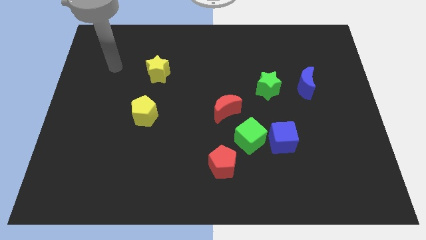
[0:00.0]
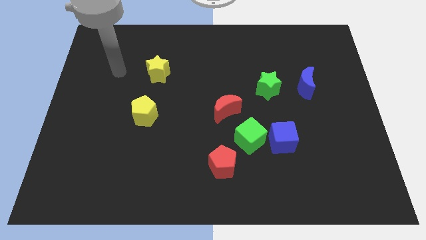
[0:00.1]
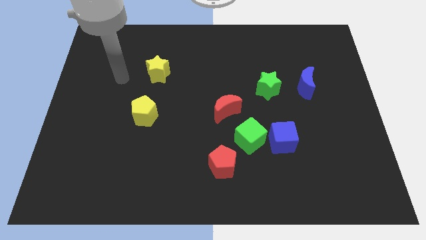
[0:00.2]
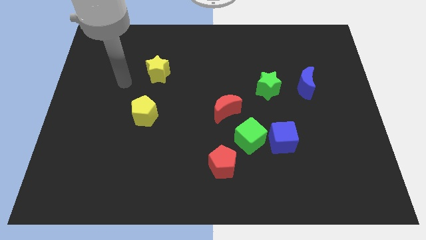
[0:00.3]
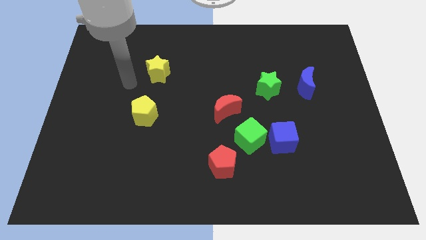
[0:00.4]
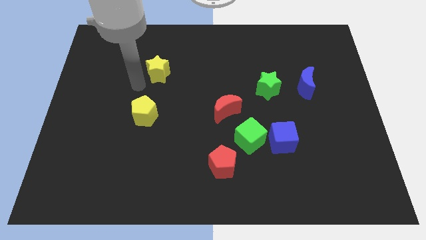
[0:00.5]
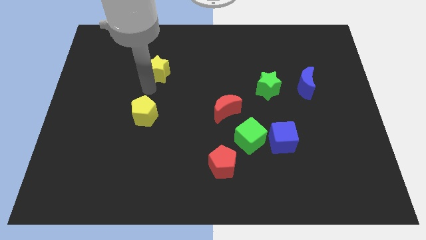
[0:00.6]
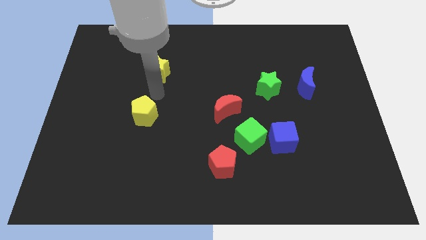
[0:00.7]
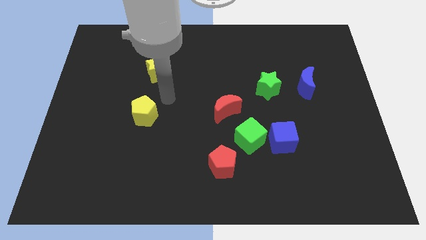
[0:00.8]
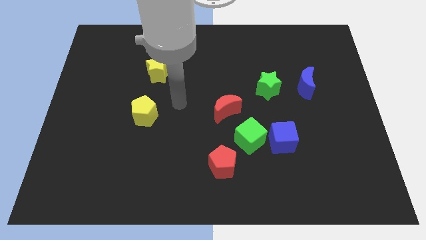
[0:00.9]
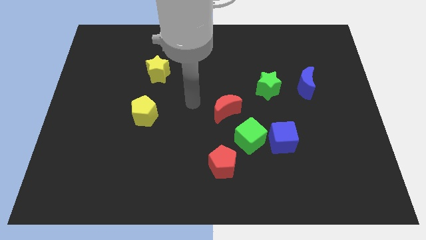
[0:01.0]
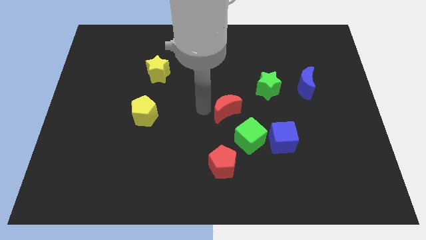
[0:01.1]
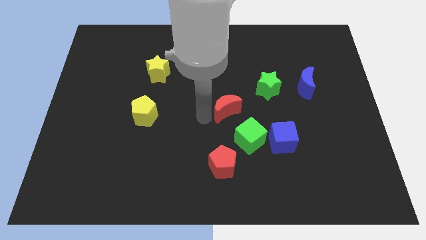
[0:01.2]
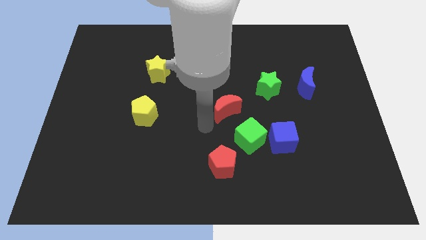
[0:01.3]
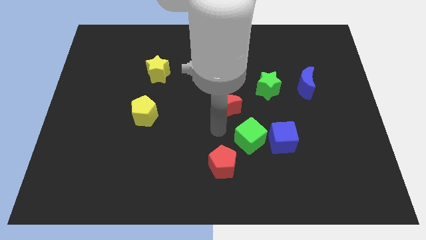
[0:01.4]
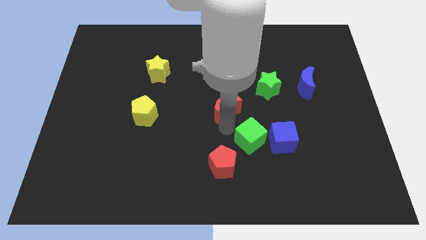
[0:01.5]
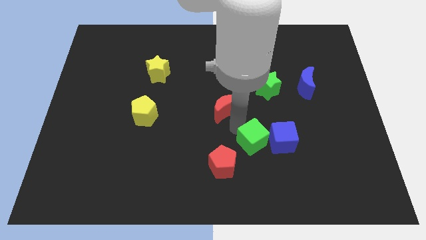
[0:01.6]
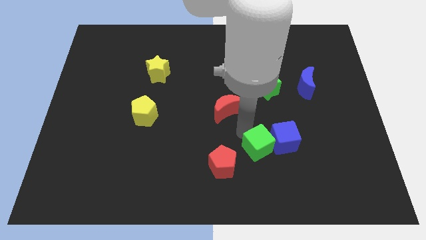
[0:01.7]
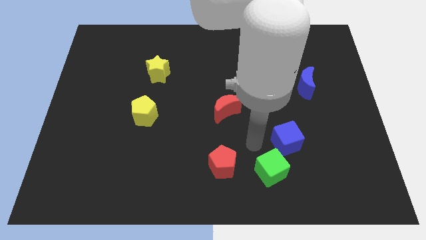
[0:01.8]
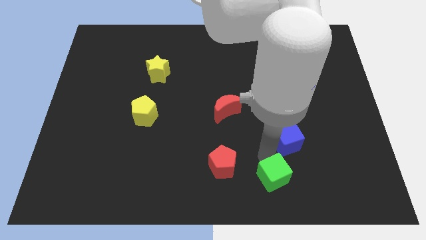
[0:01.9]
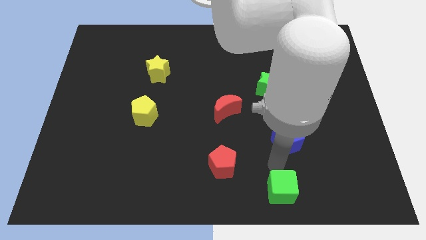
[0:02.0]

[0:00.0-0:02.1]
separate the blue cube from the green cube

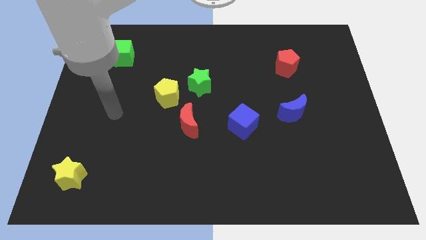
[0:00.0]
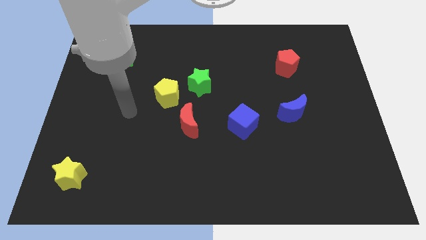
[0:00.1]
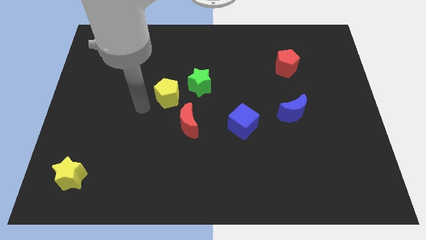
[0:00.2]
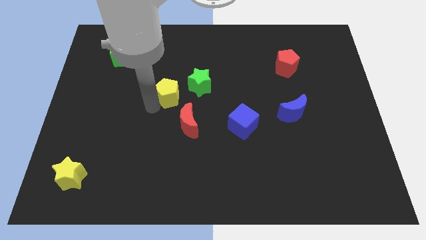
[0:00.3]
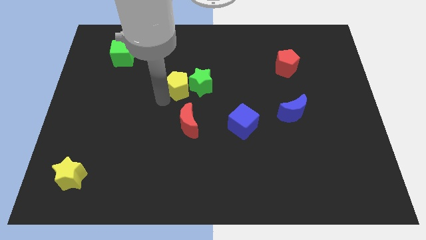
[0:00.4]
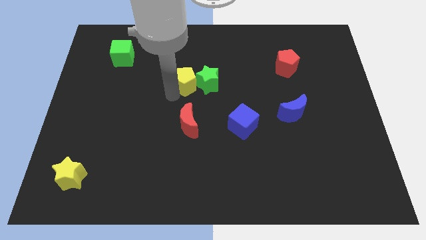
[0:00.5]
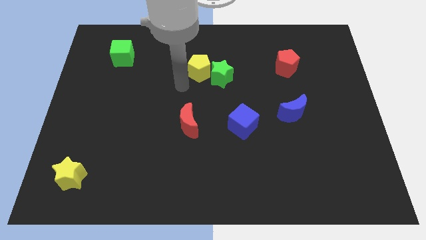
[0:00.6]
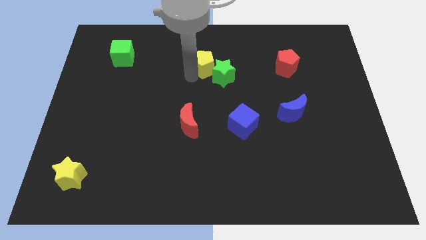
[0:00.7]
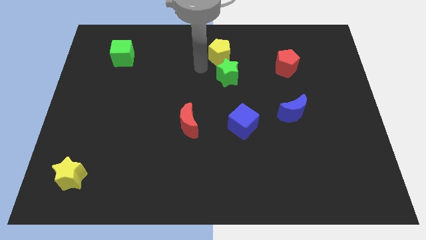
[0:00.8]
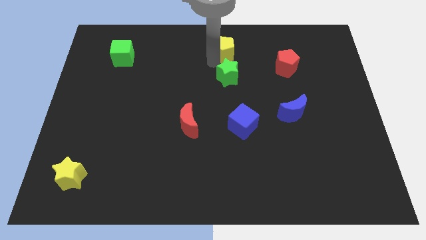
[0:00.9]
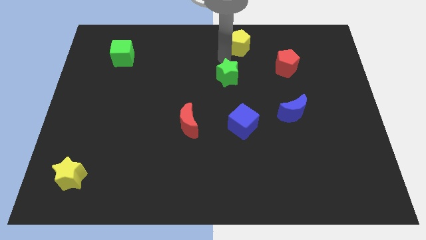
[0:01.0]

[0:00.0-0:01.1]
separate the green star from the yellow pentagon

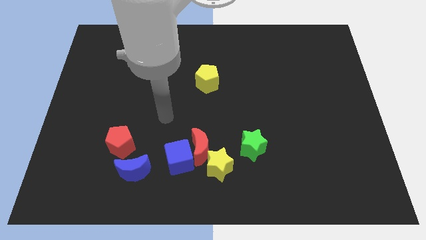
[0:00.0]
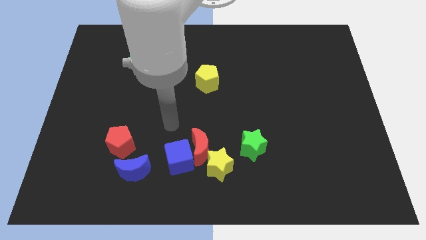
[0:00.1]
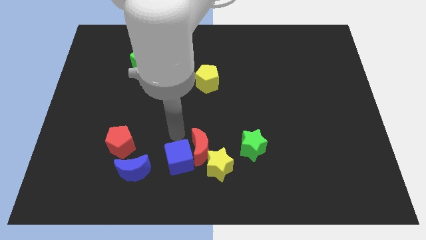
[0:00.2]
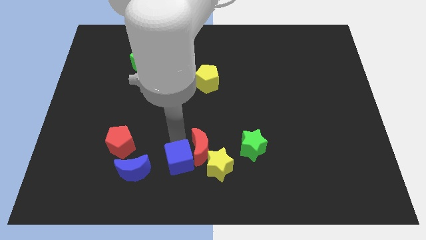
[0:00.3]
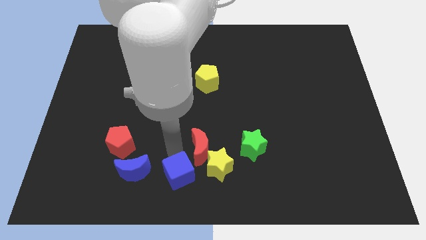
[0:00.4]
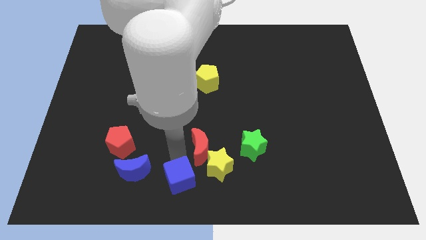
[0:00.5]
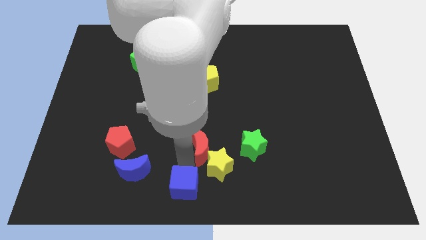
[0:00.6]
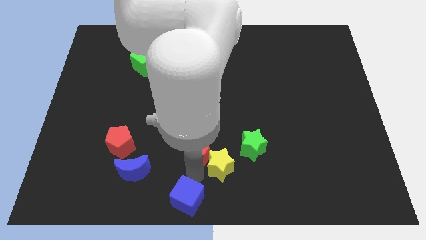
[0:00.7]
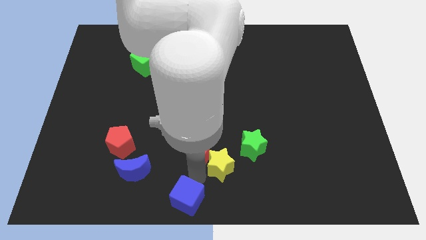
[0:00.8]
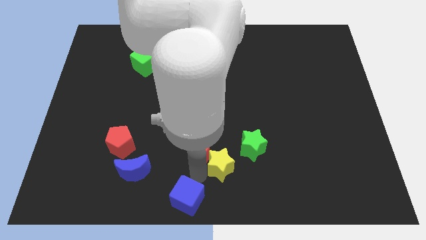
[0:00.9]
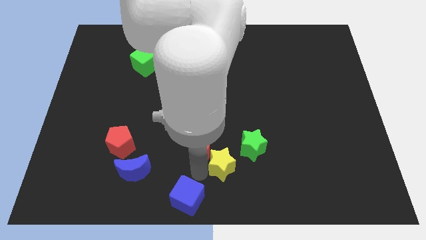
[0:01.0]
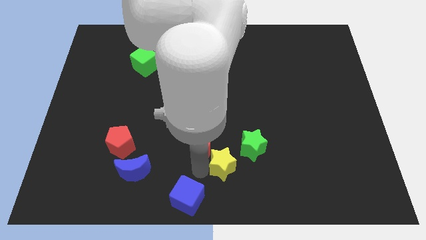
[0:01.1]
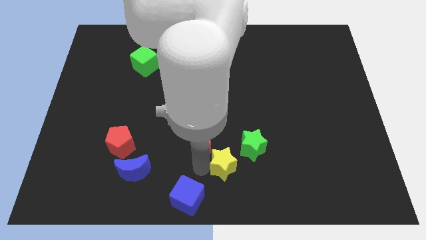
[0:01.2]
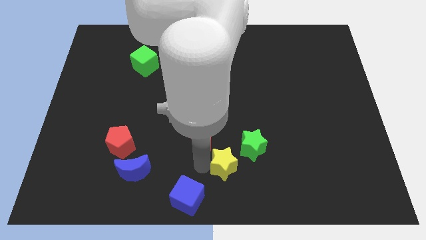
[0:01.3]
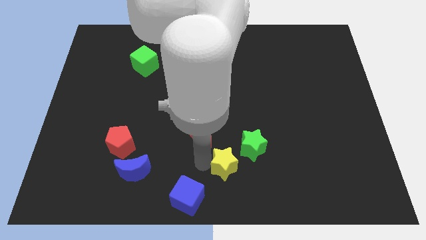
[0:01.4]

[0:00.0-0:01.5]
separate the red moon from the blue cube and yellow star

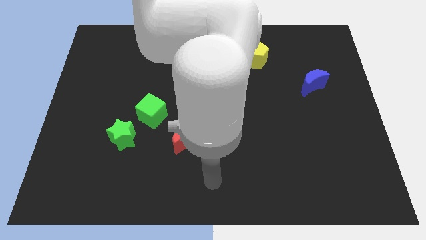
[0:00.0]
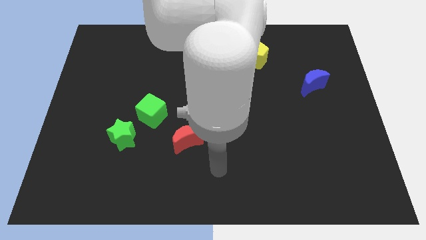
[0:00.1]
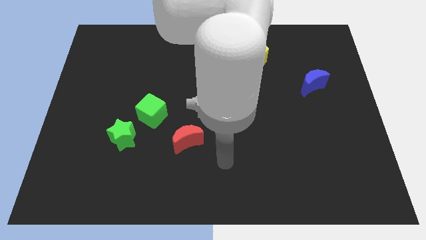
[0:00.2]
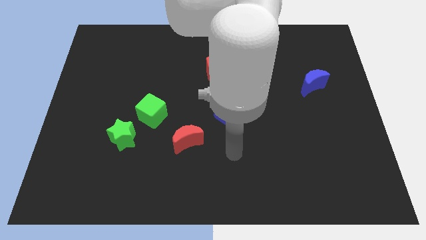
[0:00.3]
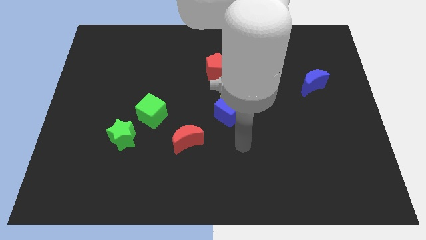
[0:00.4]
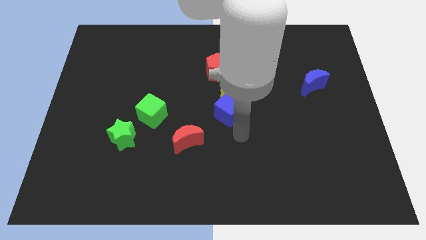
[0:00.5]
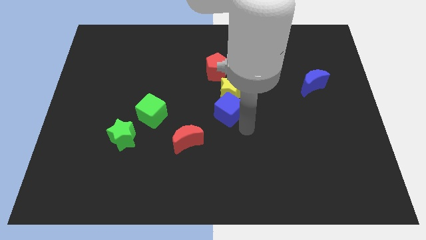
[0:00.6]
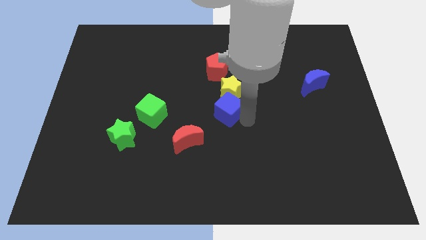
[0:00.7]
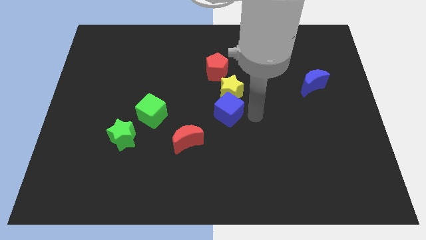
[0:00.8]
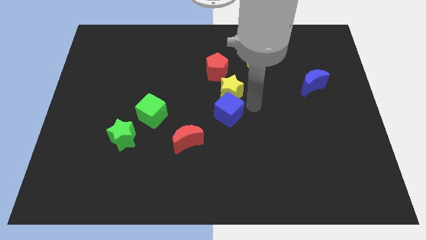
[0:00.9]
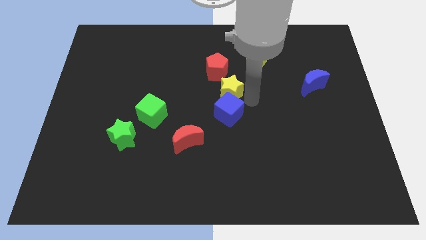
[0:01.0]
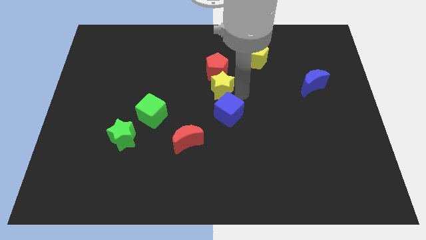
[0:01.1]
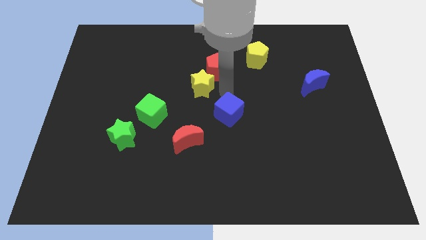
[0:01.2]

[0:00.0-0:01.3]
pull the blue cube apart from the yellow star

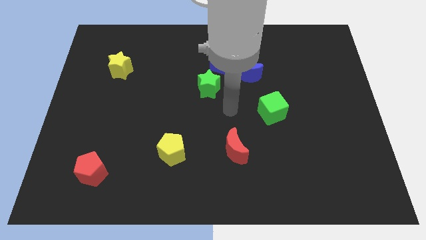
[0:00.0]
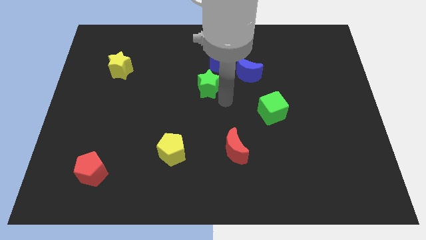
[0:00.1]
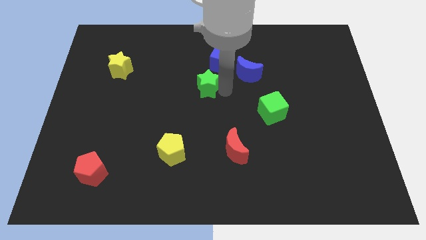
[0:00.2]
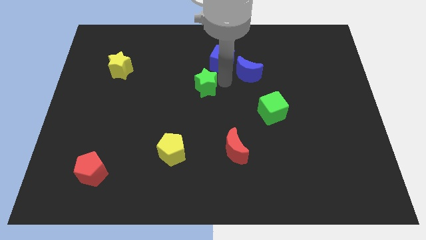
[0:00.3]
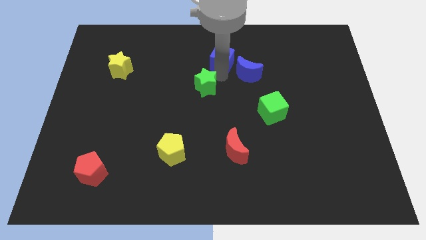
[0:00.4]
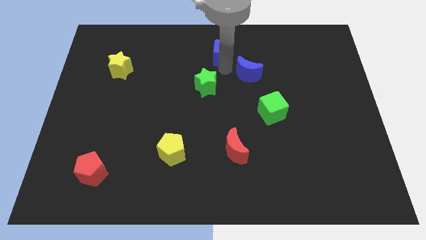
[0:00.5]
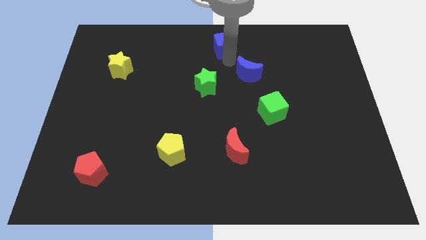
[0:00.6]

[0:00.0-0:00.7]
separate the blue moon from the blue cube

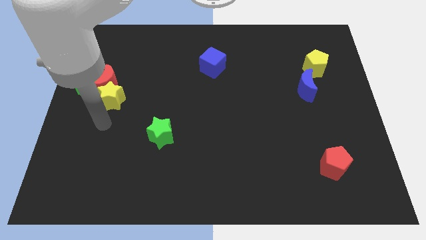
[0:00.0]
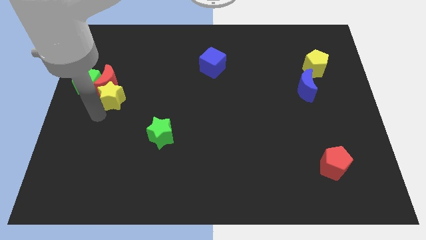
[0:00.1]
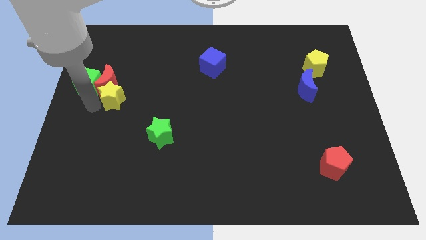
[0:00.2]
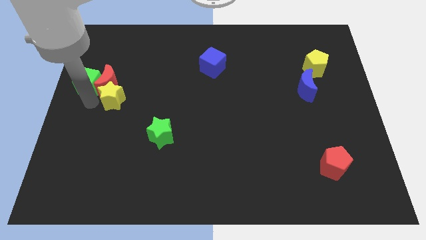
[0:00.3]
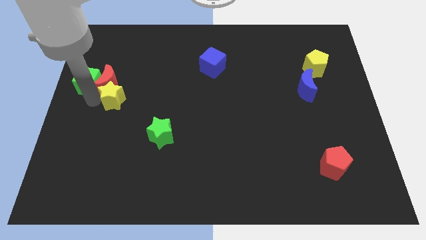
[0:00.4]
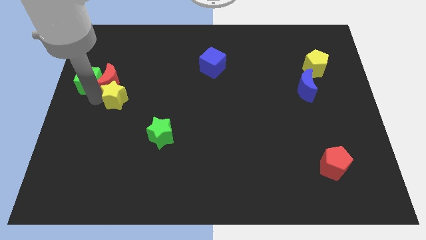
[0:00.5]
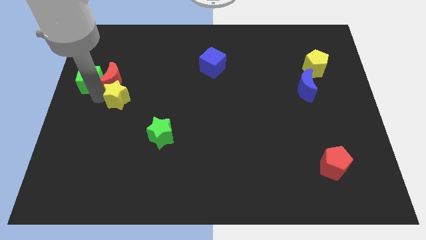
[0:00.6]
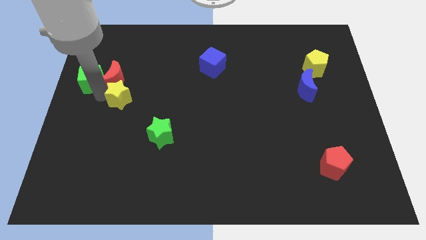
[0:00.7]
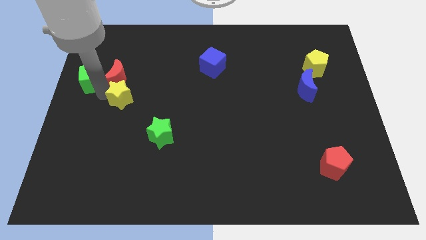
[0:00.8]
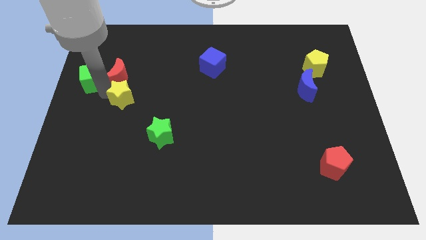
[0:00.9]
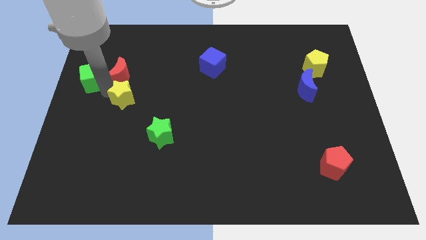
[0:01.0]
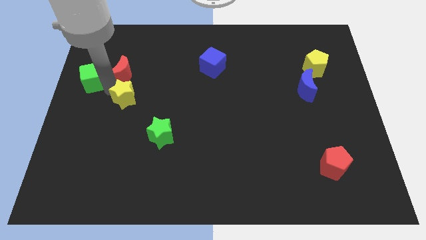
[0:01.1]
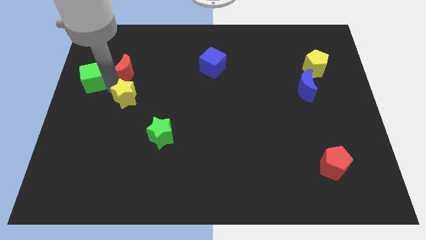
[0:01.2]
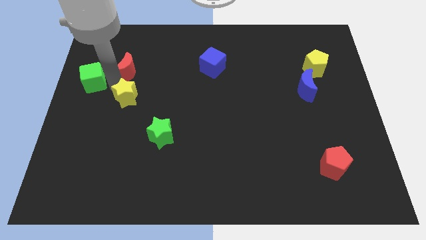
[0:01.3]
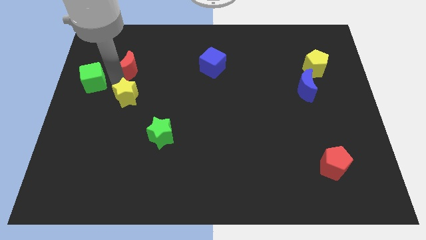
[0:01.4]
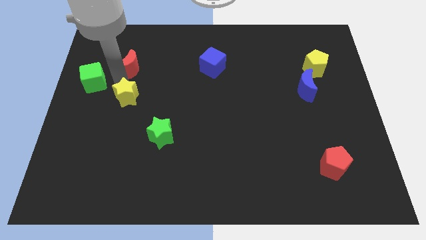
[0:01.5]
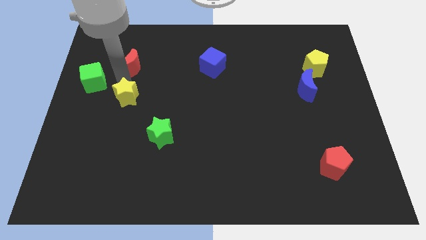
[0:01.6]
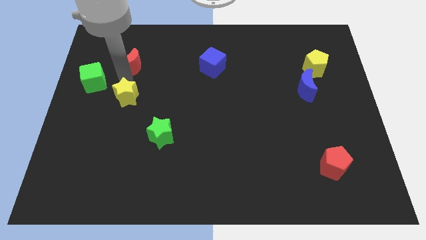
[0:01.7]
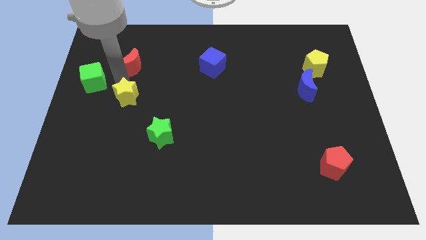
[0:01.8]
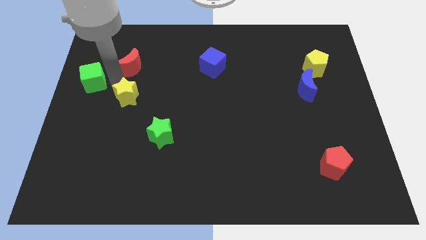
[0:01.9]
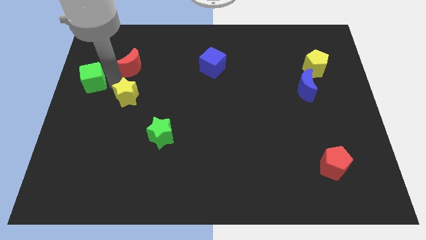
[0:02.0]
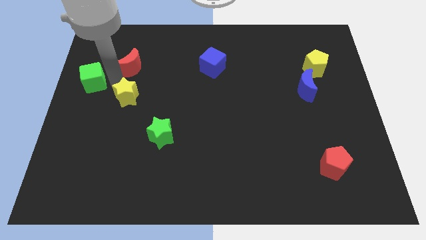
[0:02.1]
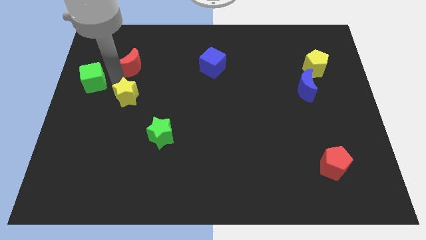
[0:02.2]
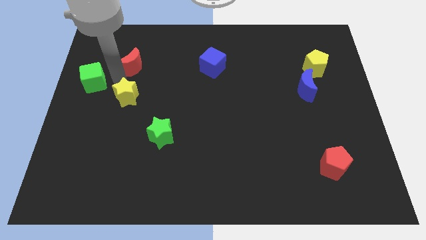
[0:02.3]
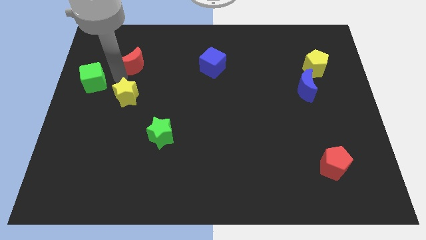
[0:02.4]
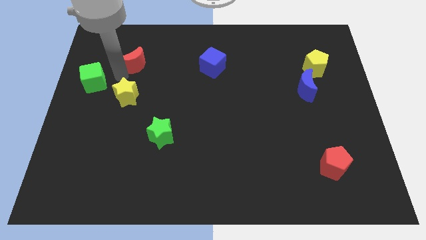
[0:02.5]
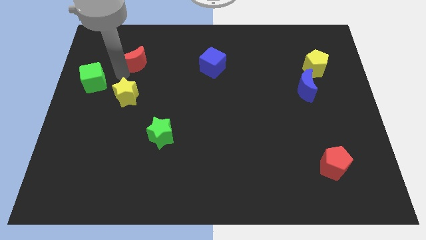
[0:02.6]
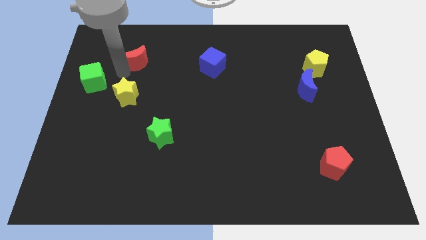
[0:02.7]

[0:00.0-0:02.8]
pull the red moon apart from the yellow star and green cube
